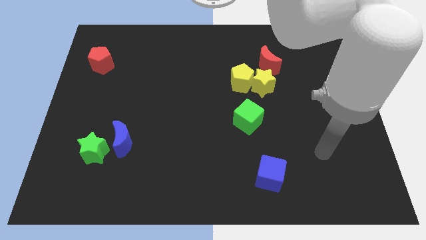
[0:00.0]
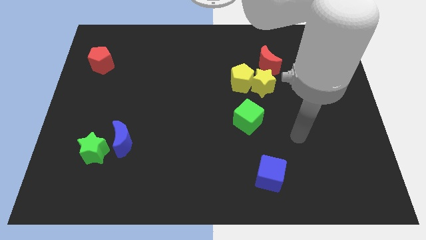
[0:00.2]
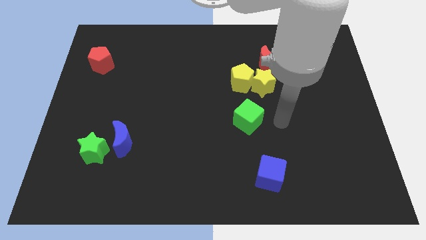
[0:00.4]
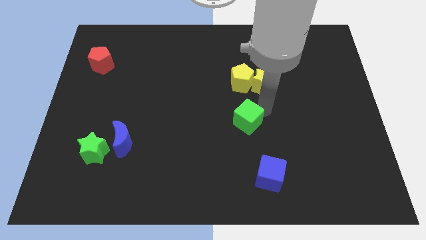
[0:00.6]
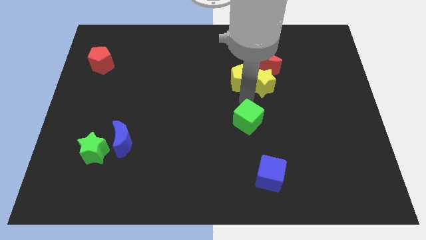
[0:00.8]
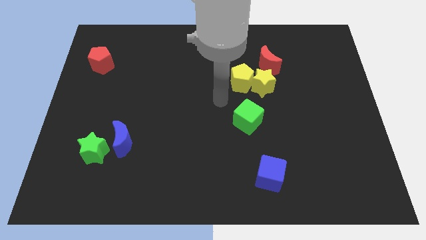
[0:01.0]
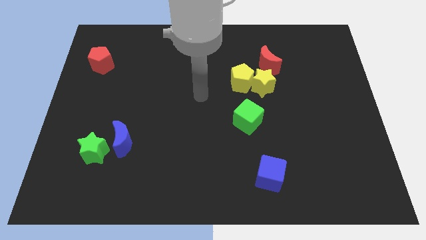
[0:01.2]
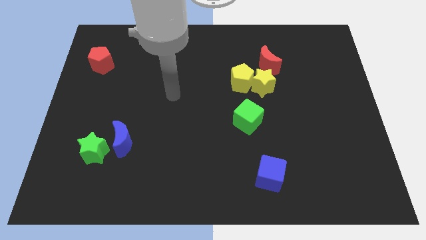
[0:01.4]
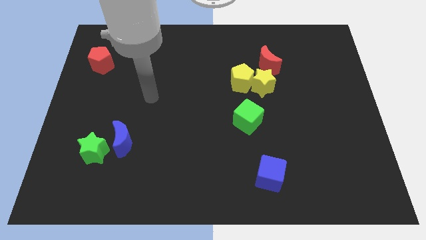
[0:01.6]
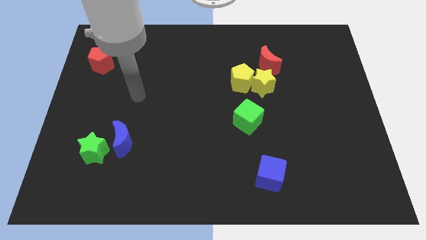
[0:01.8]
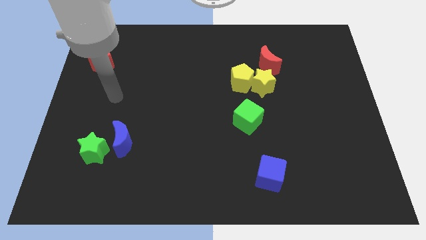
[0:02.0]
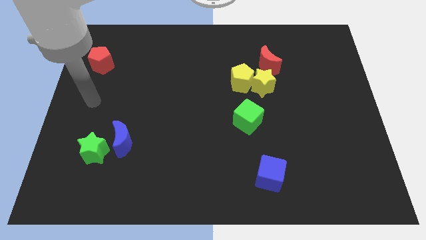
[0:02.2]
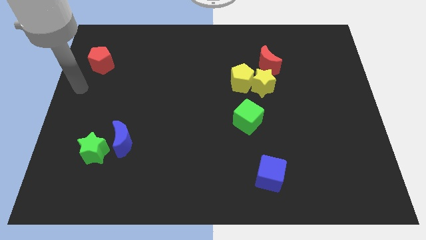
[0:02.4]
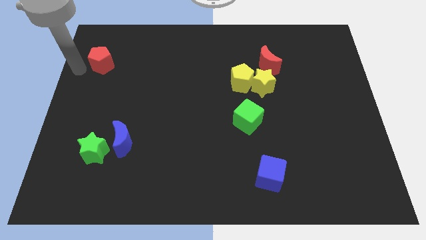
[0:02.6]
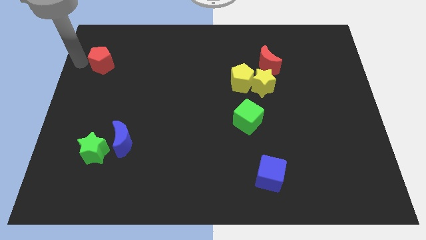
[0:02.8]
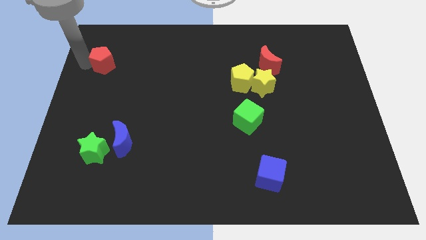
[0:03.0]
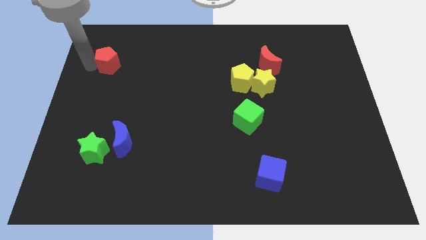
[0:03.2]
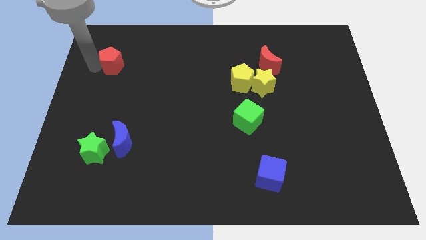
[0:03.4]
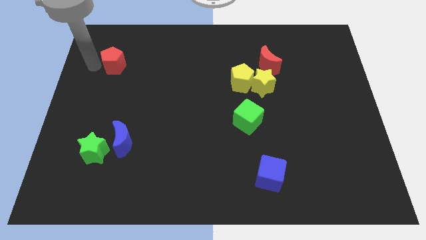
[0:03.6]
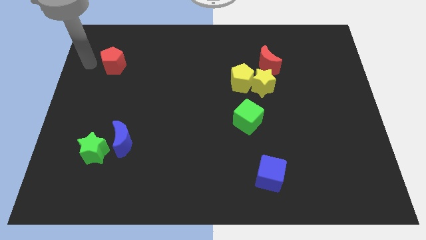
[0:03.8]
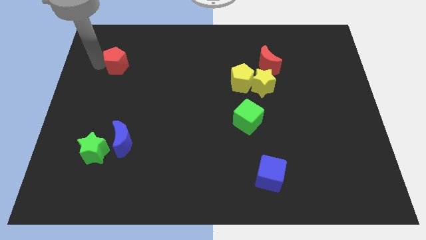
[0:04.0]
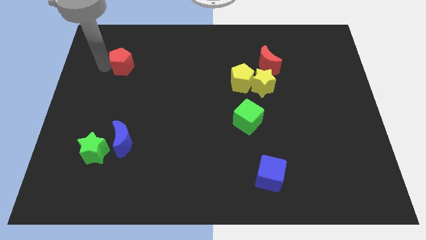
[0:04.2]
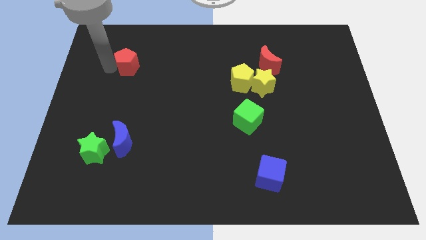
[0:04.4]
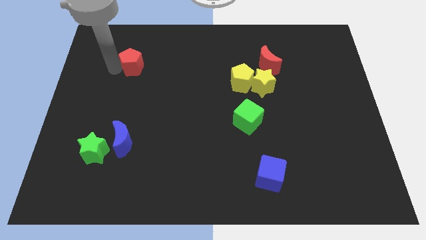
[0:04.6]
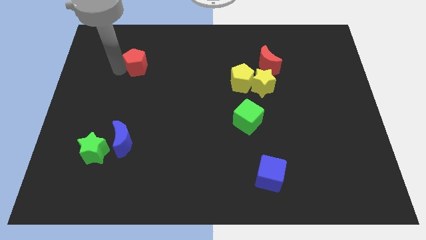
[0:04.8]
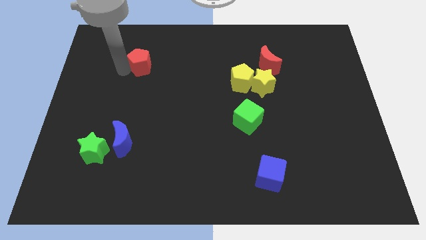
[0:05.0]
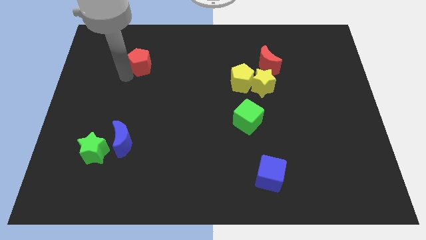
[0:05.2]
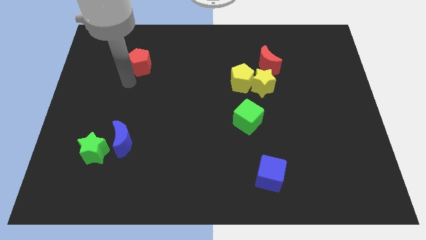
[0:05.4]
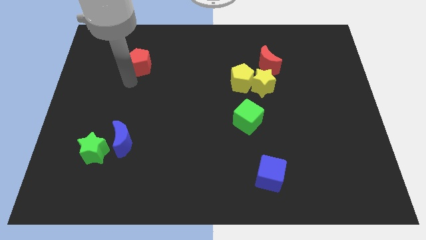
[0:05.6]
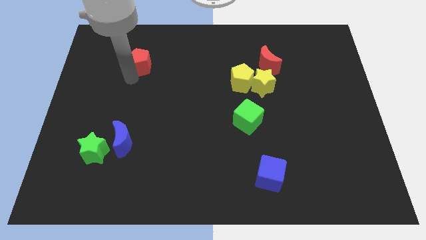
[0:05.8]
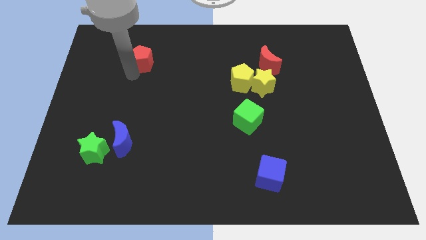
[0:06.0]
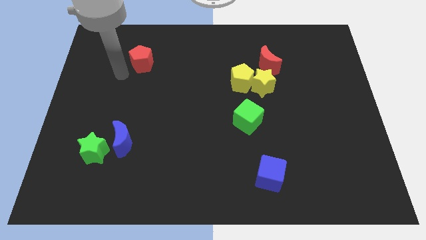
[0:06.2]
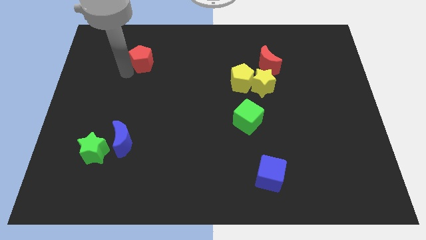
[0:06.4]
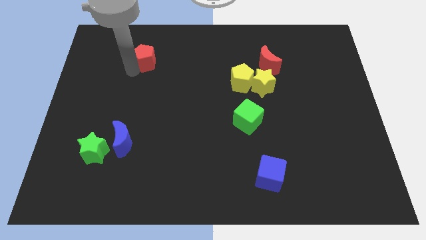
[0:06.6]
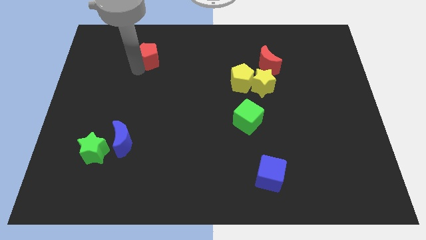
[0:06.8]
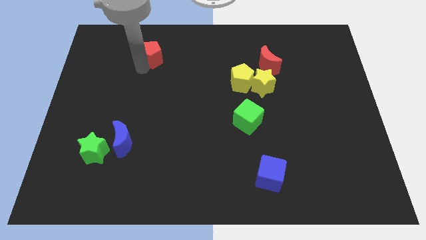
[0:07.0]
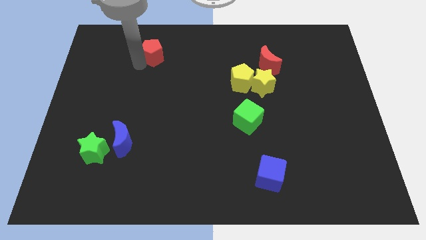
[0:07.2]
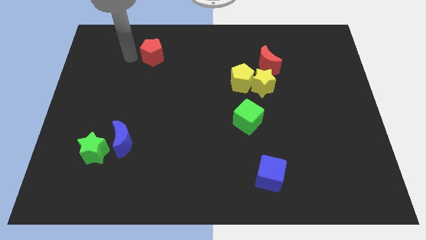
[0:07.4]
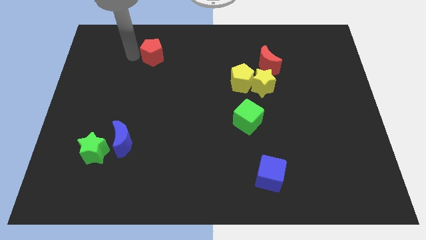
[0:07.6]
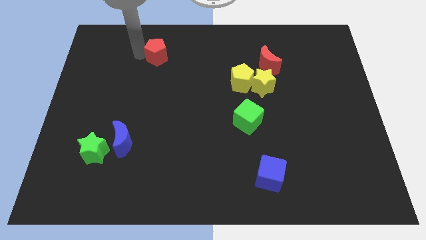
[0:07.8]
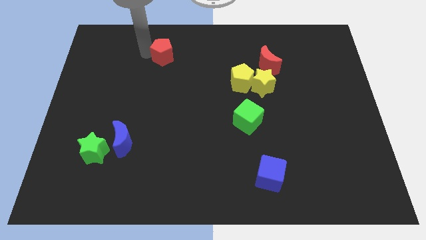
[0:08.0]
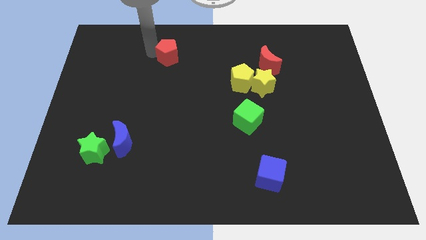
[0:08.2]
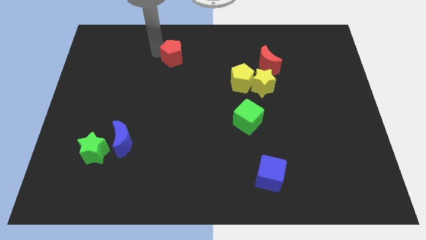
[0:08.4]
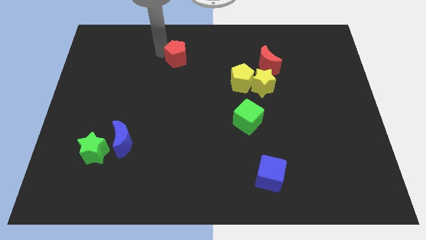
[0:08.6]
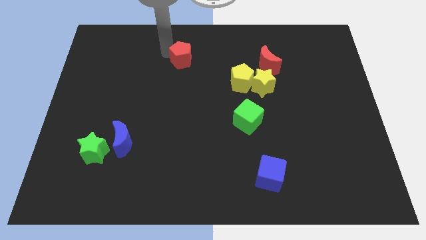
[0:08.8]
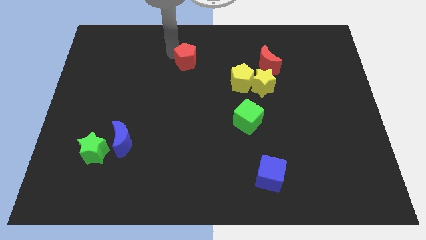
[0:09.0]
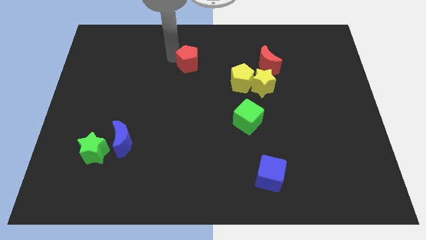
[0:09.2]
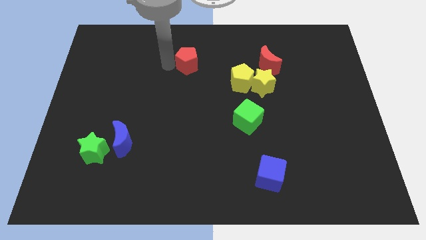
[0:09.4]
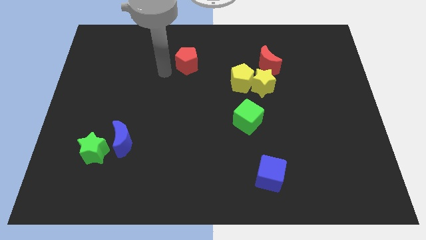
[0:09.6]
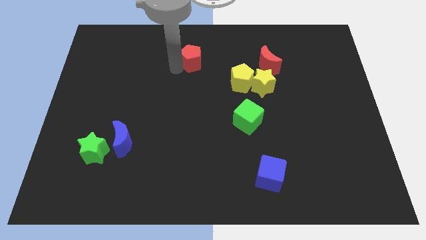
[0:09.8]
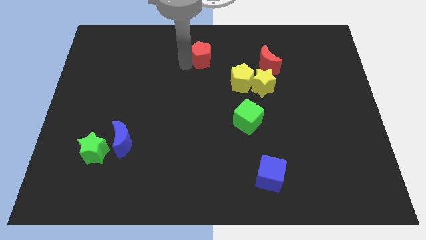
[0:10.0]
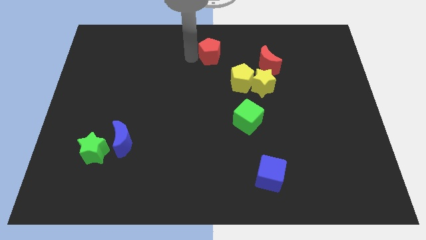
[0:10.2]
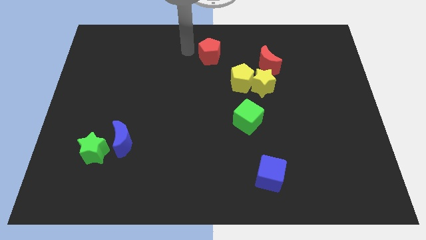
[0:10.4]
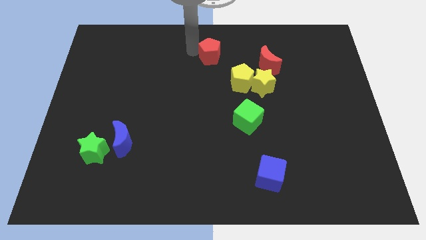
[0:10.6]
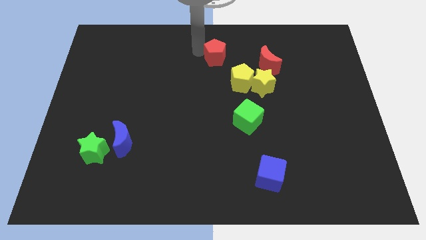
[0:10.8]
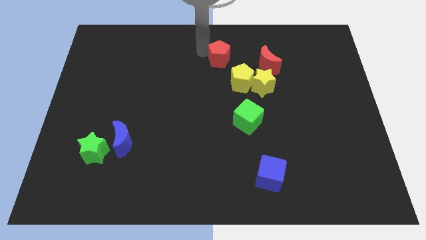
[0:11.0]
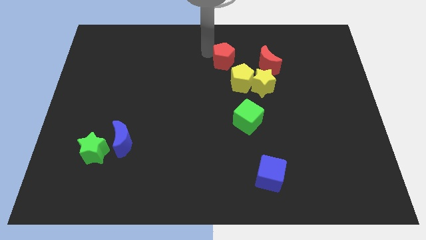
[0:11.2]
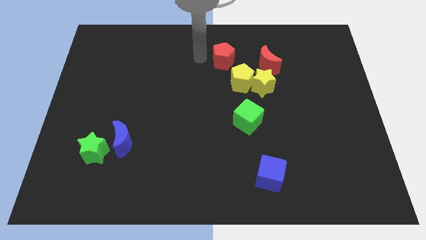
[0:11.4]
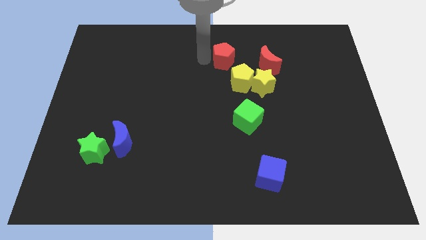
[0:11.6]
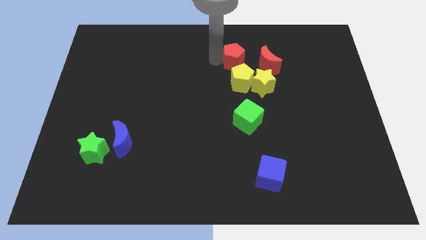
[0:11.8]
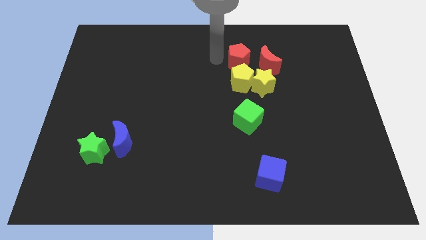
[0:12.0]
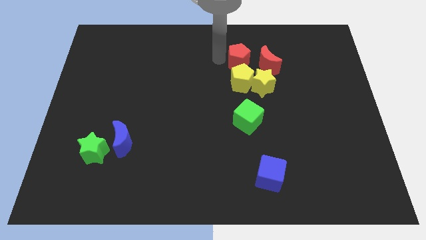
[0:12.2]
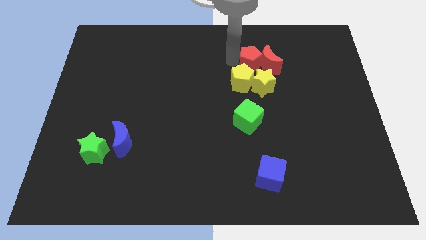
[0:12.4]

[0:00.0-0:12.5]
push the red pentagon close to the red moon

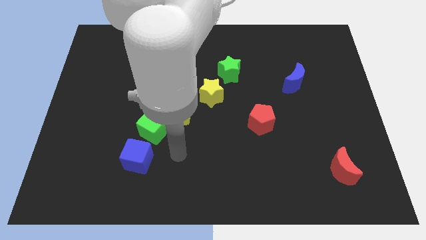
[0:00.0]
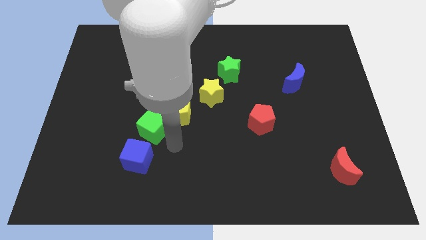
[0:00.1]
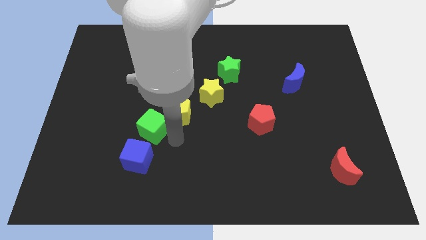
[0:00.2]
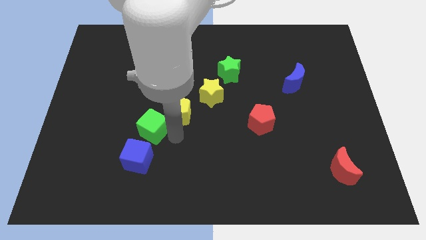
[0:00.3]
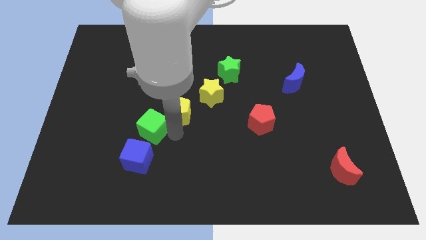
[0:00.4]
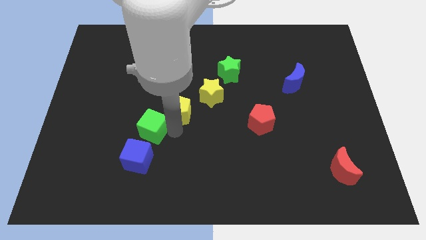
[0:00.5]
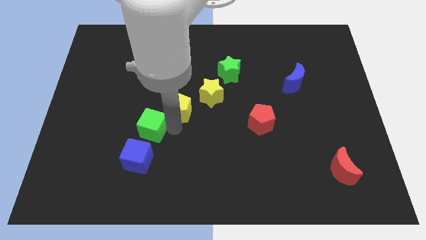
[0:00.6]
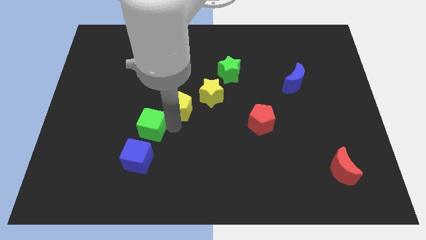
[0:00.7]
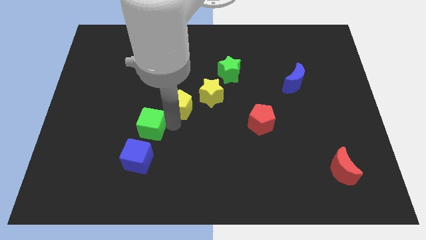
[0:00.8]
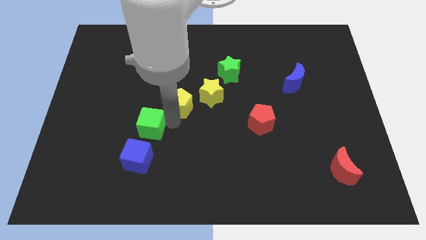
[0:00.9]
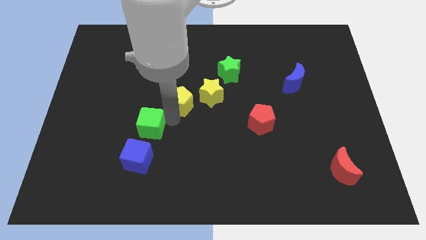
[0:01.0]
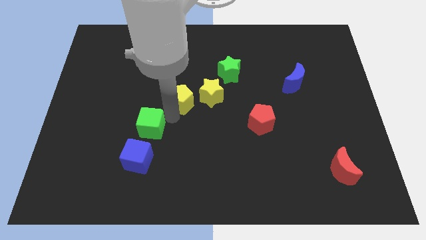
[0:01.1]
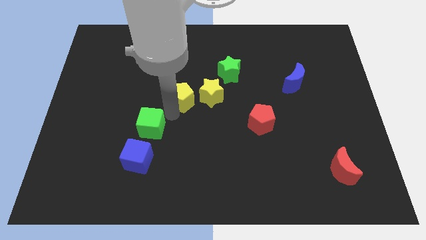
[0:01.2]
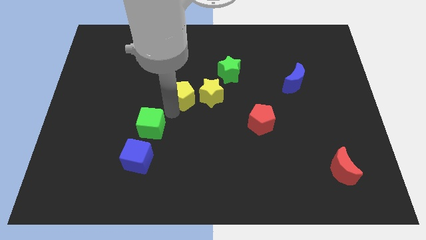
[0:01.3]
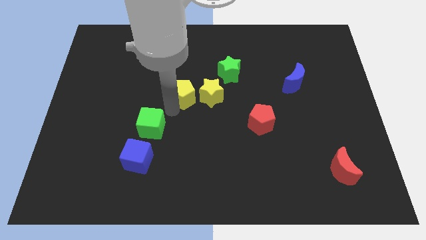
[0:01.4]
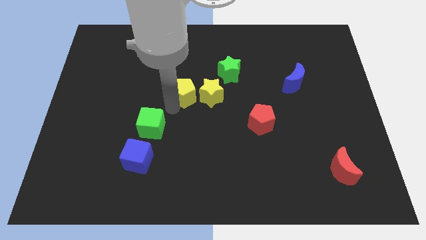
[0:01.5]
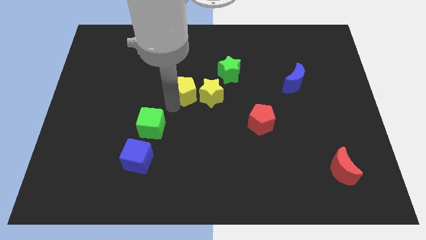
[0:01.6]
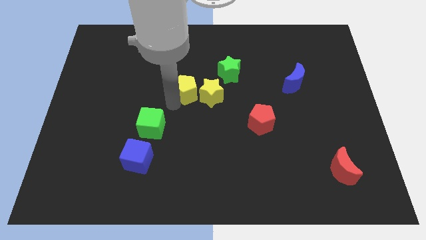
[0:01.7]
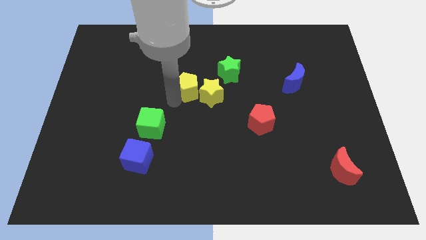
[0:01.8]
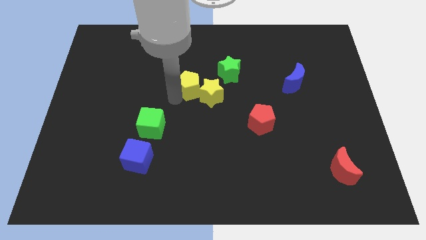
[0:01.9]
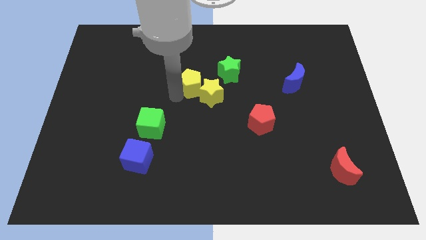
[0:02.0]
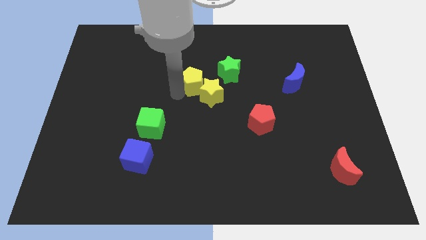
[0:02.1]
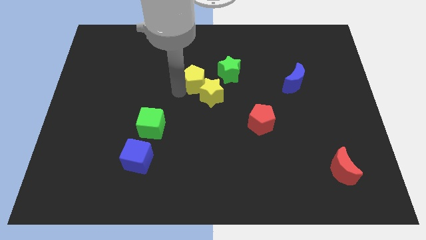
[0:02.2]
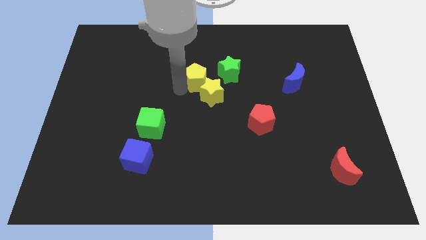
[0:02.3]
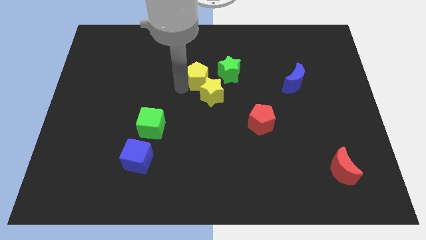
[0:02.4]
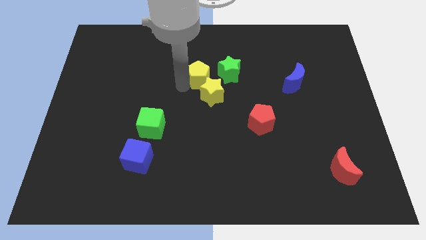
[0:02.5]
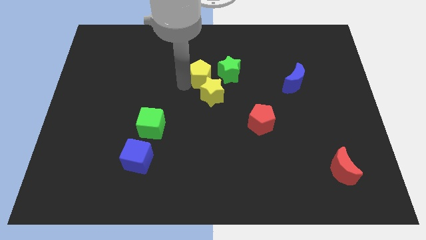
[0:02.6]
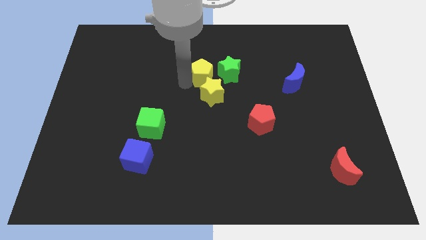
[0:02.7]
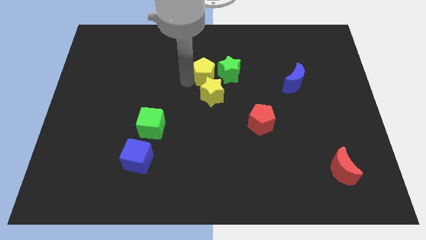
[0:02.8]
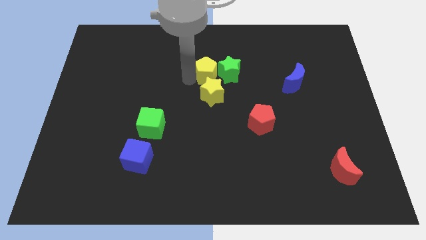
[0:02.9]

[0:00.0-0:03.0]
slide the yellow pentagon to the green star
